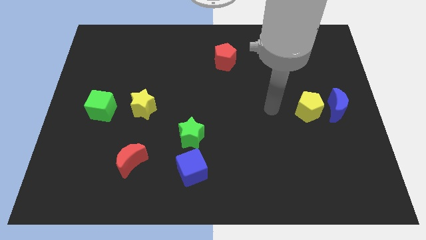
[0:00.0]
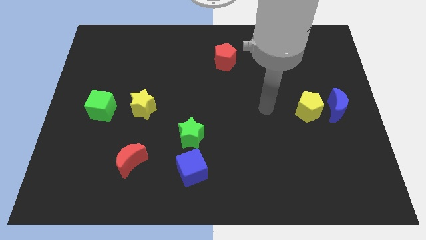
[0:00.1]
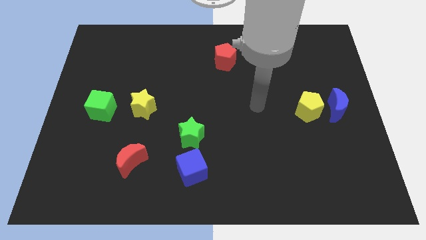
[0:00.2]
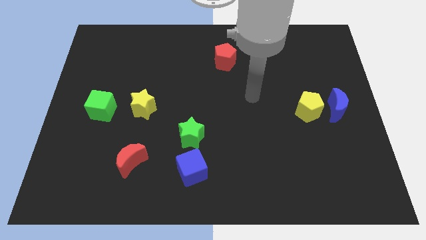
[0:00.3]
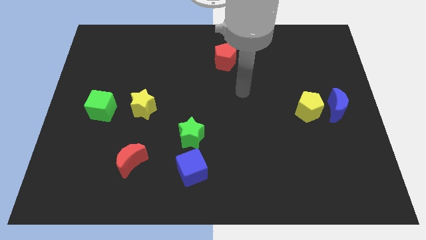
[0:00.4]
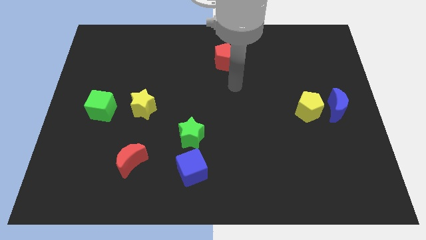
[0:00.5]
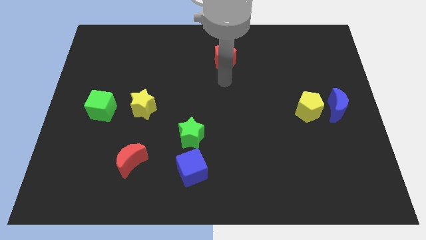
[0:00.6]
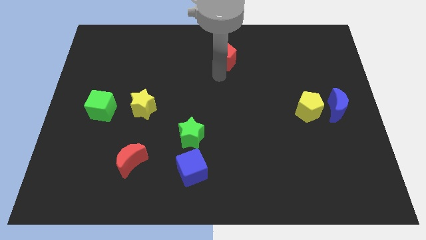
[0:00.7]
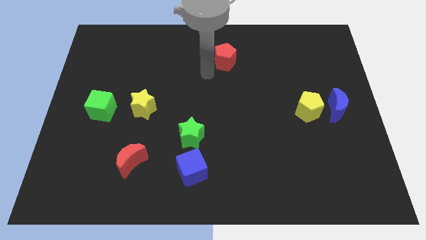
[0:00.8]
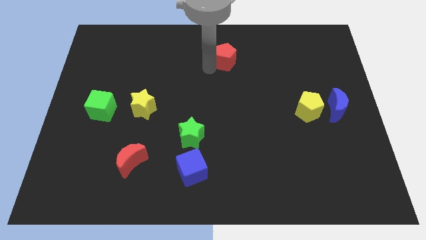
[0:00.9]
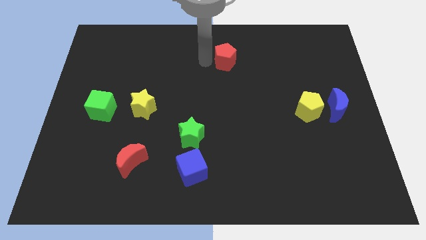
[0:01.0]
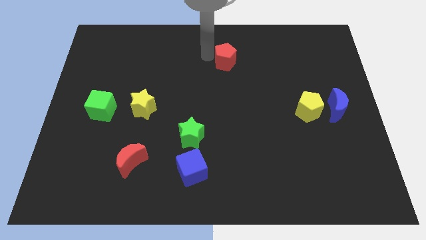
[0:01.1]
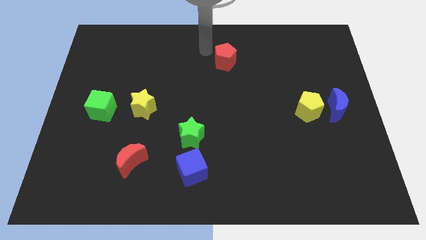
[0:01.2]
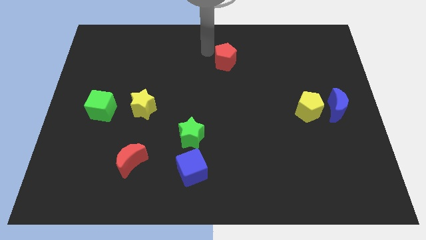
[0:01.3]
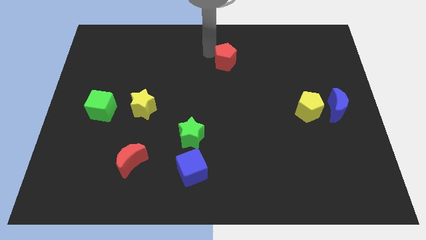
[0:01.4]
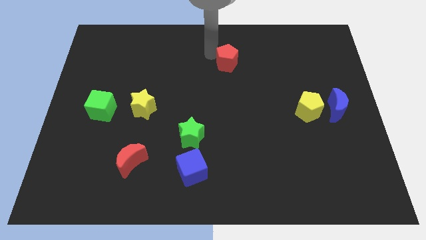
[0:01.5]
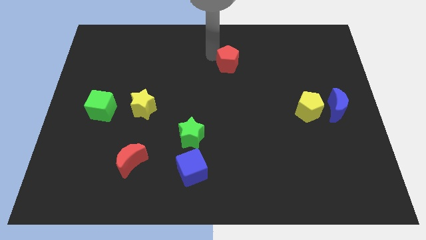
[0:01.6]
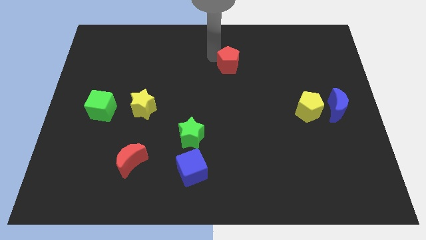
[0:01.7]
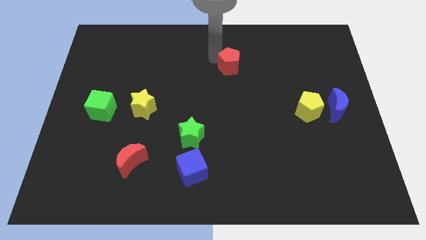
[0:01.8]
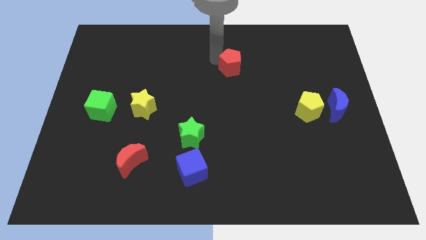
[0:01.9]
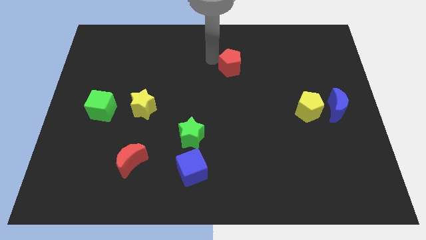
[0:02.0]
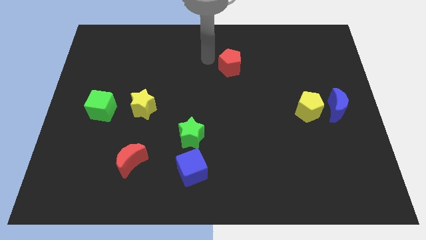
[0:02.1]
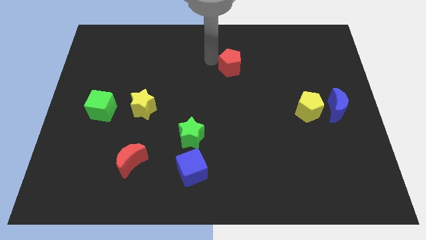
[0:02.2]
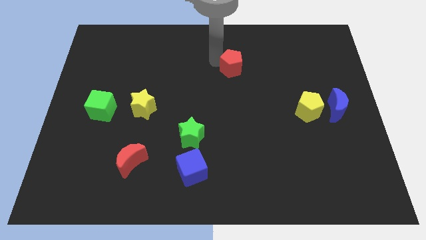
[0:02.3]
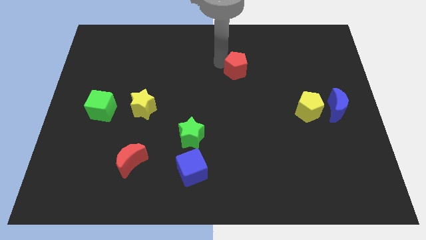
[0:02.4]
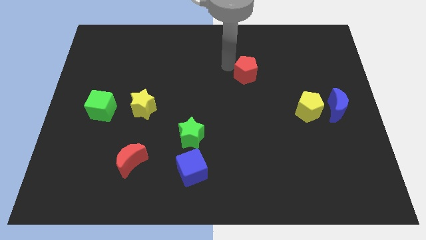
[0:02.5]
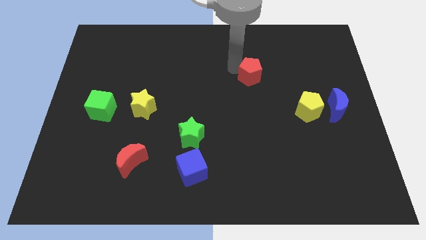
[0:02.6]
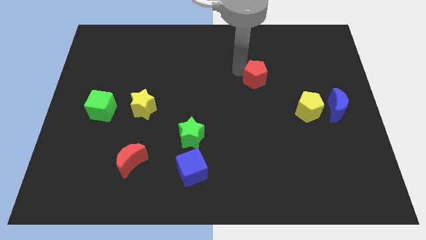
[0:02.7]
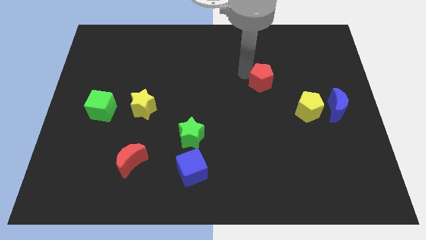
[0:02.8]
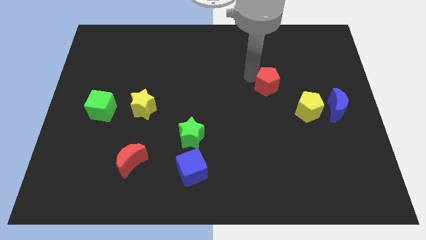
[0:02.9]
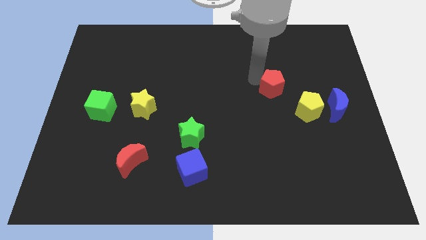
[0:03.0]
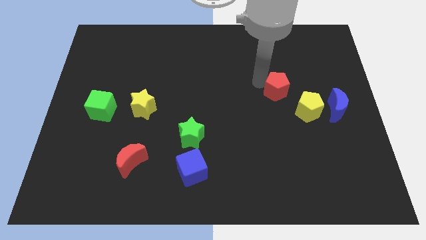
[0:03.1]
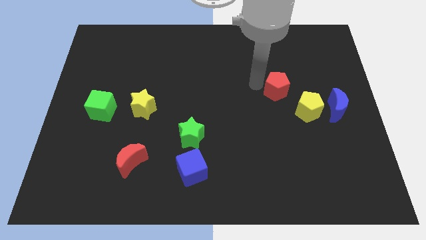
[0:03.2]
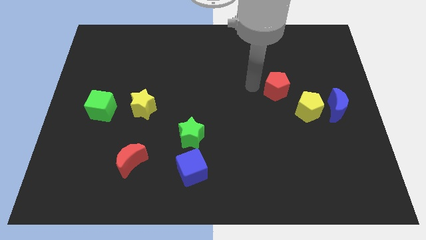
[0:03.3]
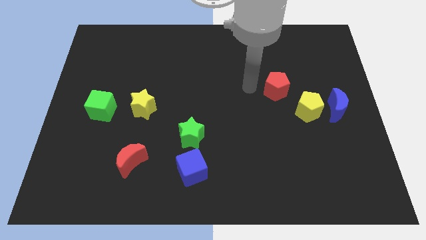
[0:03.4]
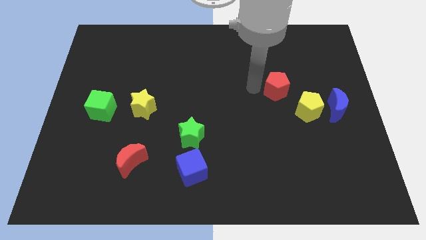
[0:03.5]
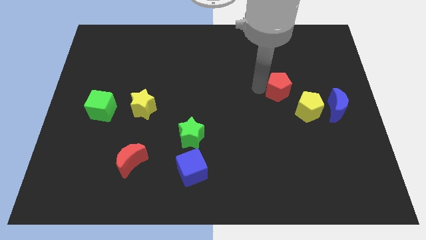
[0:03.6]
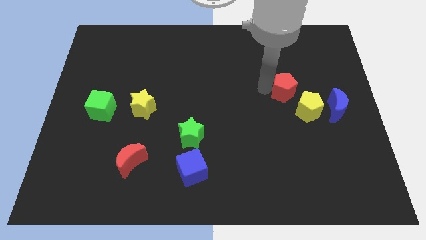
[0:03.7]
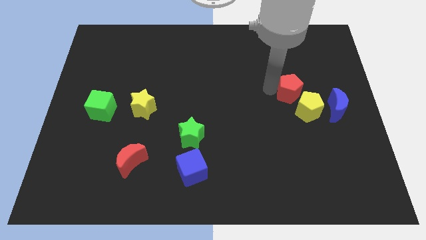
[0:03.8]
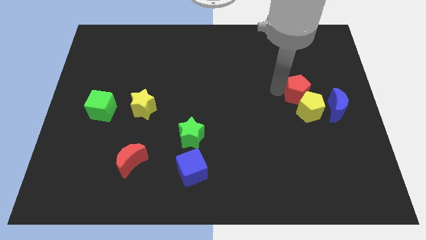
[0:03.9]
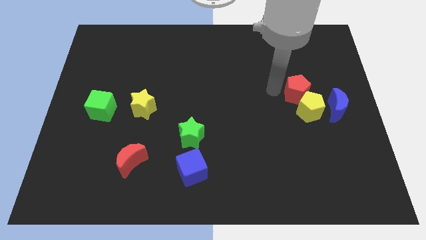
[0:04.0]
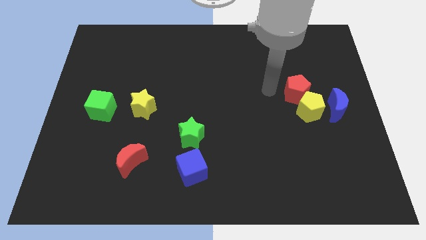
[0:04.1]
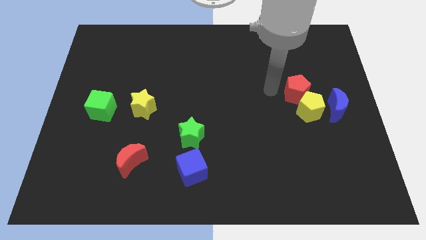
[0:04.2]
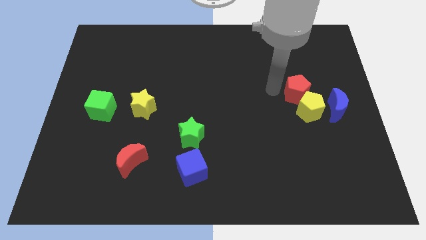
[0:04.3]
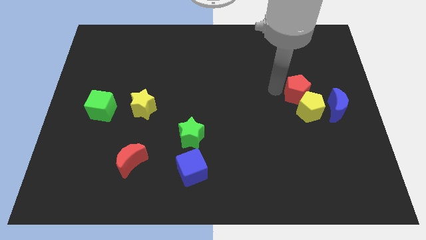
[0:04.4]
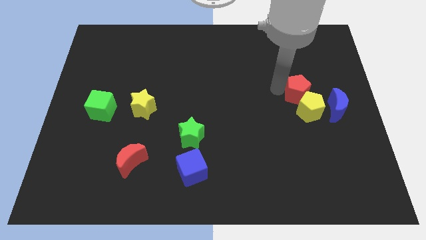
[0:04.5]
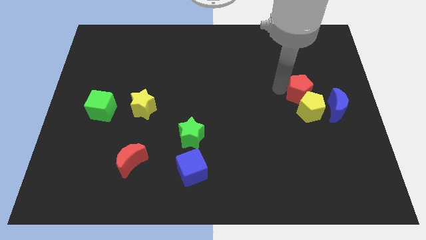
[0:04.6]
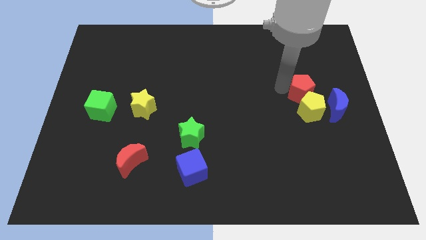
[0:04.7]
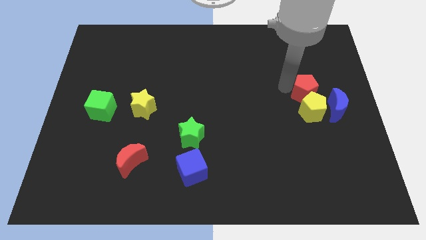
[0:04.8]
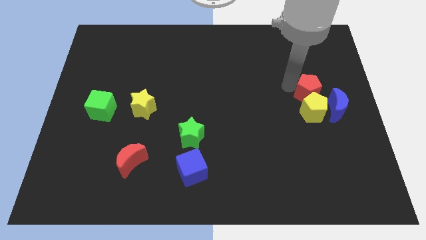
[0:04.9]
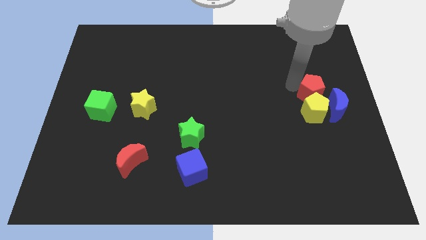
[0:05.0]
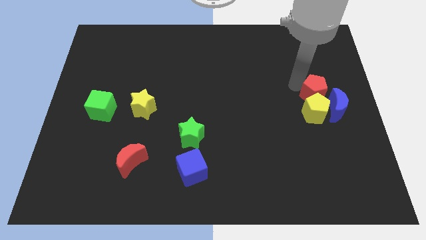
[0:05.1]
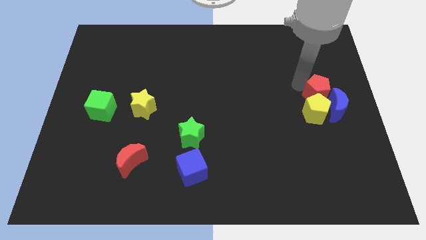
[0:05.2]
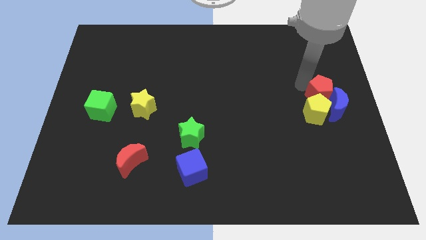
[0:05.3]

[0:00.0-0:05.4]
slide the red pentagon close to the blue moon

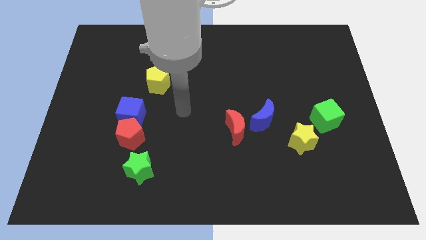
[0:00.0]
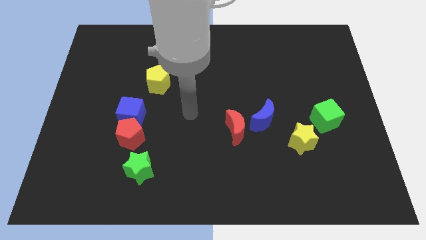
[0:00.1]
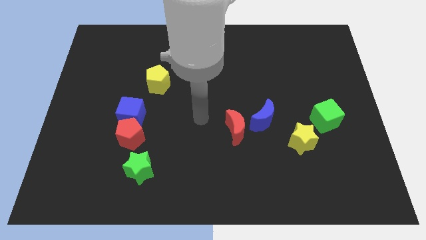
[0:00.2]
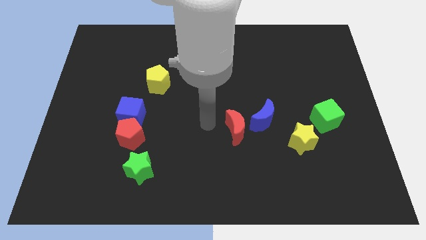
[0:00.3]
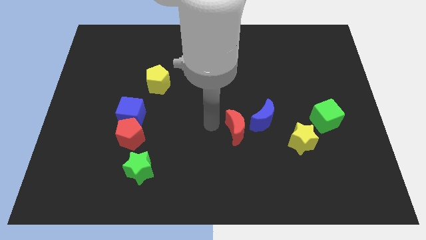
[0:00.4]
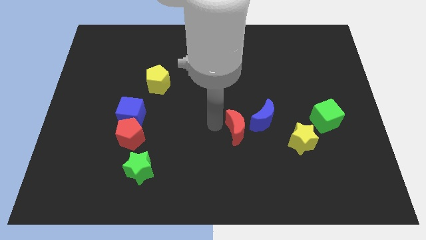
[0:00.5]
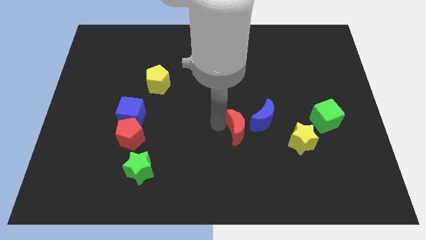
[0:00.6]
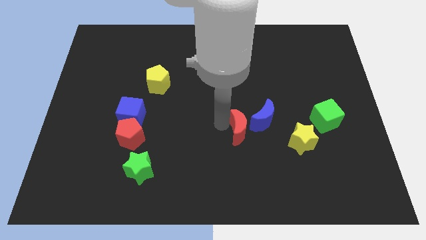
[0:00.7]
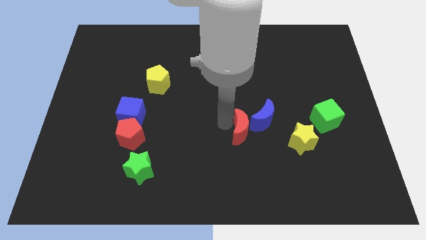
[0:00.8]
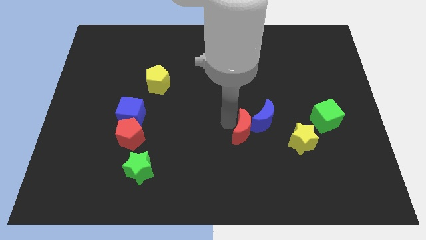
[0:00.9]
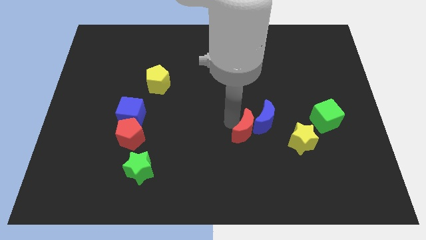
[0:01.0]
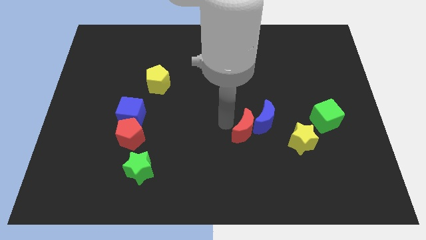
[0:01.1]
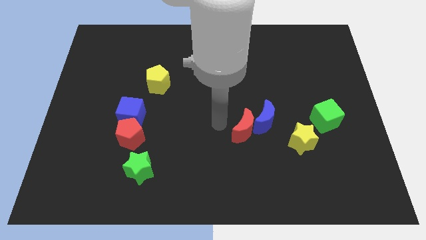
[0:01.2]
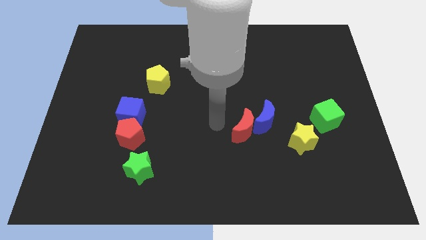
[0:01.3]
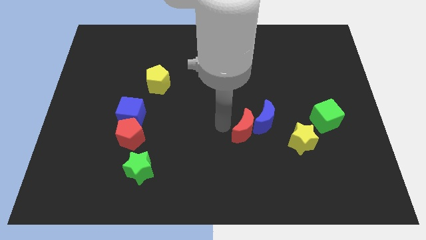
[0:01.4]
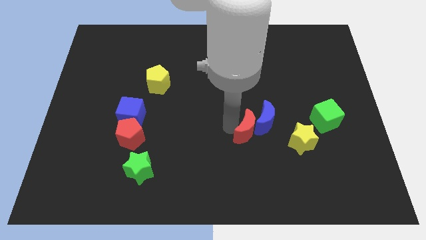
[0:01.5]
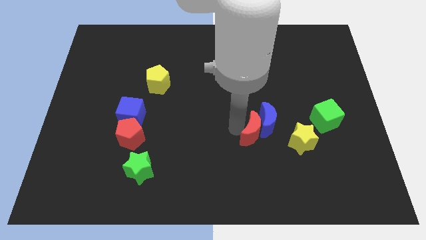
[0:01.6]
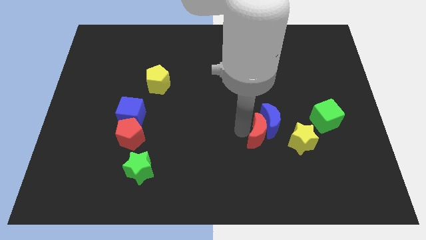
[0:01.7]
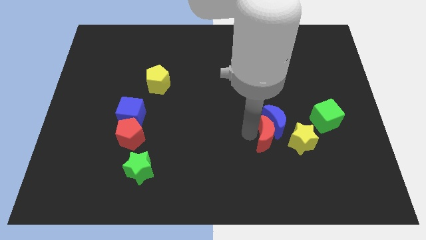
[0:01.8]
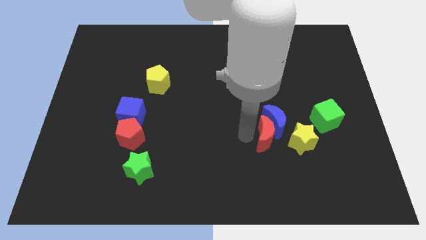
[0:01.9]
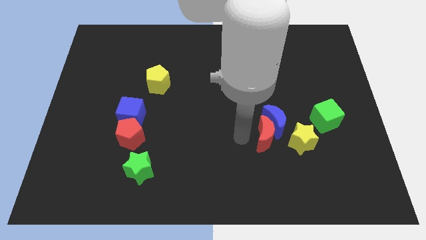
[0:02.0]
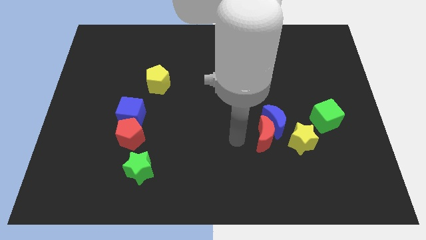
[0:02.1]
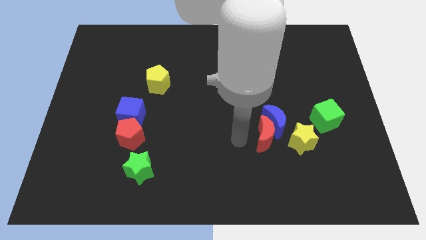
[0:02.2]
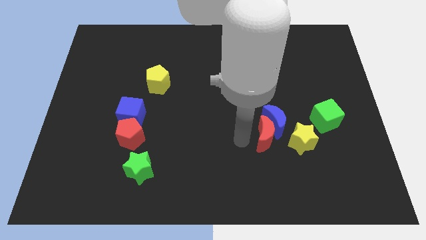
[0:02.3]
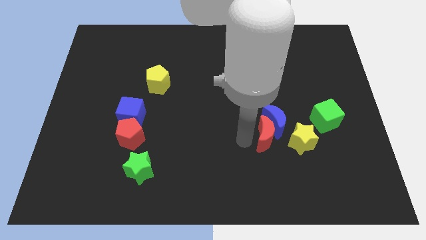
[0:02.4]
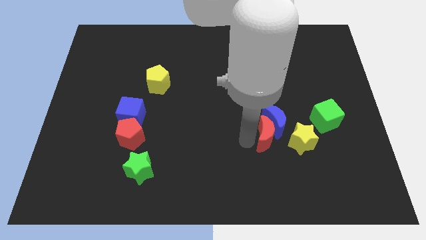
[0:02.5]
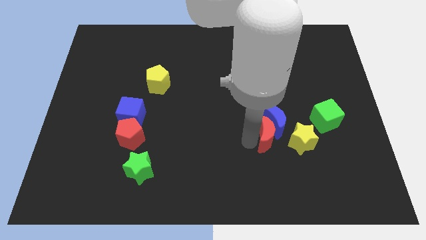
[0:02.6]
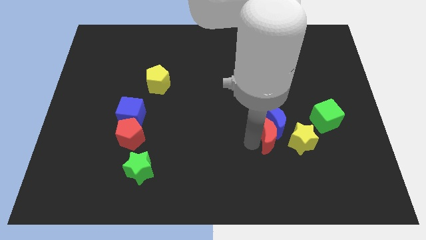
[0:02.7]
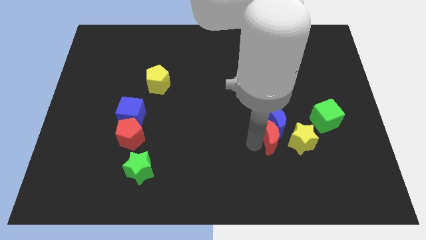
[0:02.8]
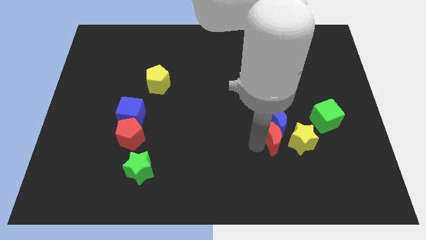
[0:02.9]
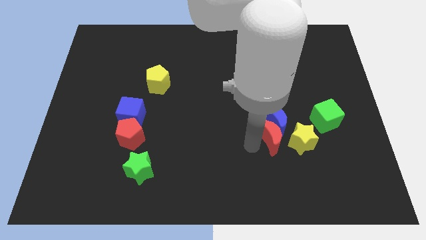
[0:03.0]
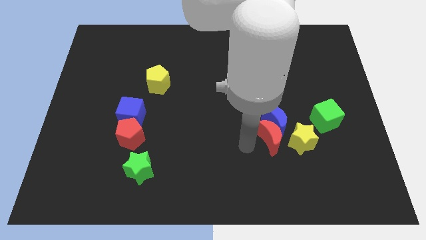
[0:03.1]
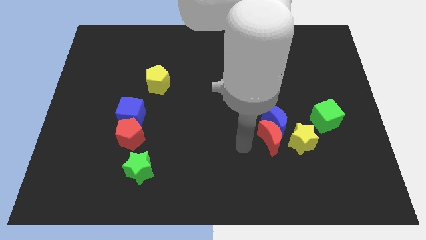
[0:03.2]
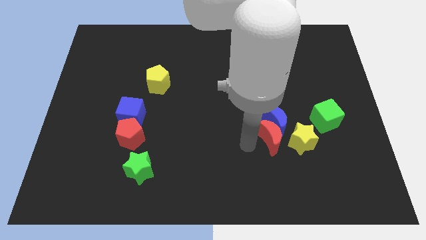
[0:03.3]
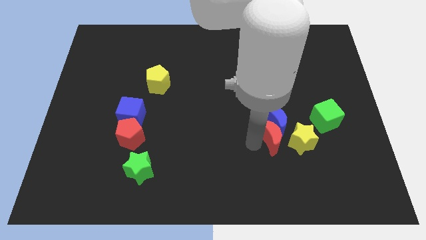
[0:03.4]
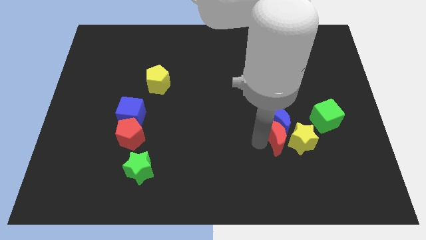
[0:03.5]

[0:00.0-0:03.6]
move the red moon towards the yellow star
